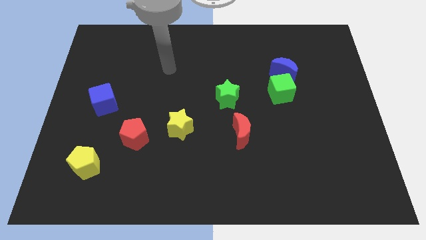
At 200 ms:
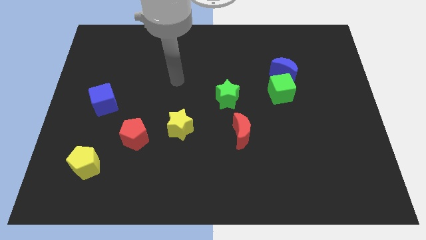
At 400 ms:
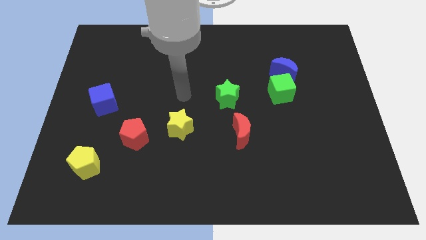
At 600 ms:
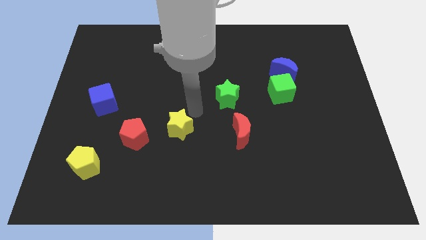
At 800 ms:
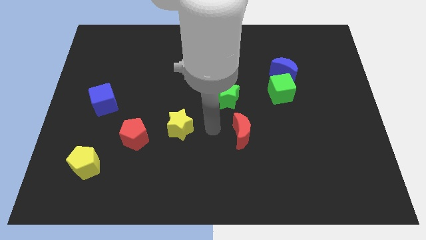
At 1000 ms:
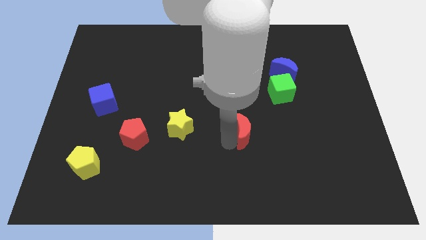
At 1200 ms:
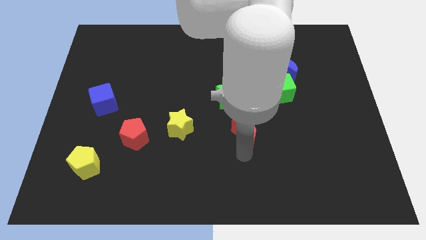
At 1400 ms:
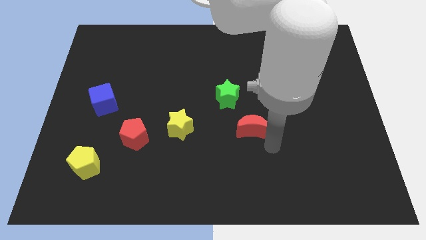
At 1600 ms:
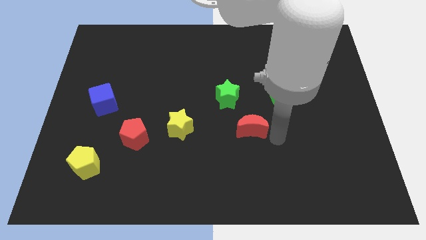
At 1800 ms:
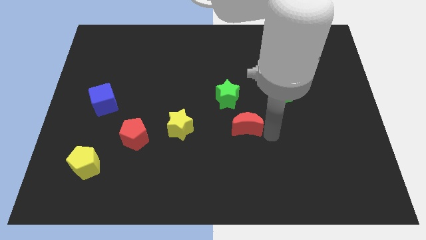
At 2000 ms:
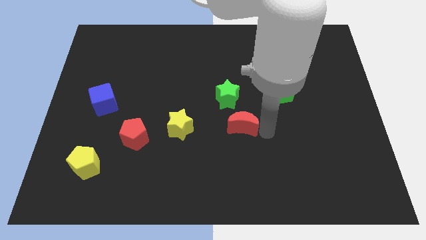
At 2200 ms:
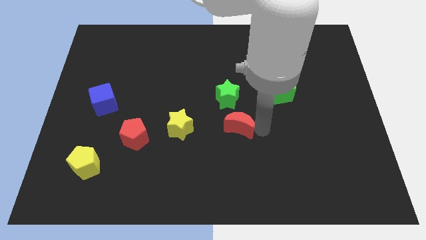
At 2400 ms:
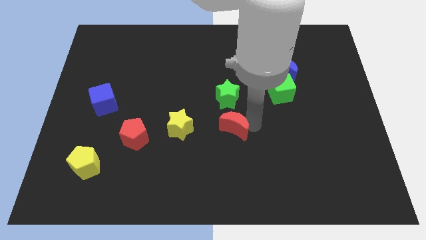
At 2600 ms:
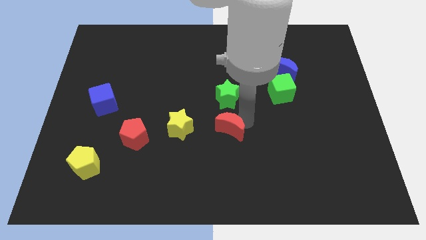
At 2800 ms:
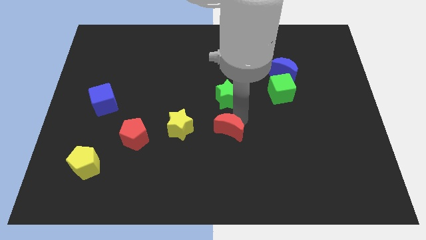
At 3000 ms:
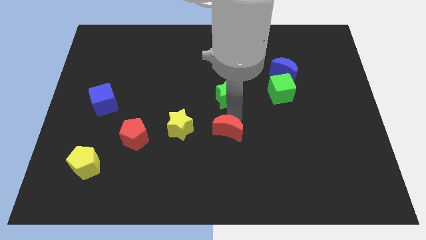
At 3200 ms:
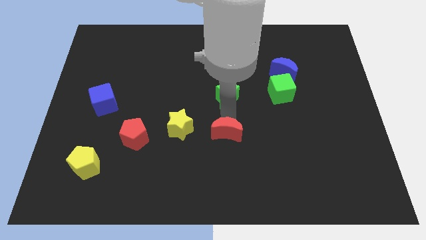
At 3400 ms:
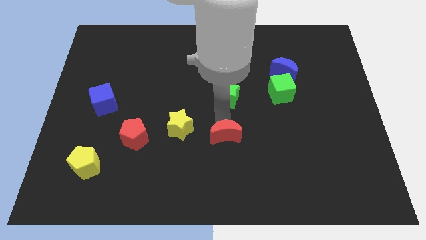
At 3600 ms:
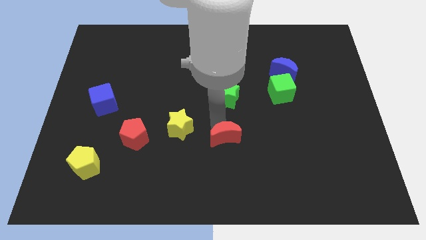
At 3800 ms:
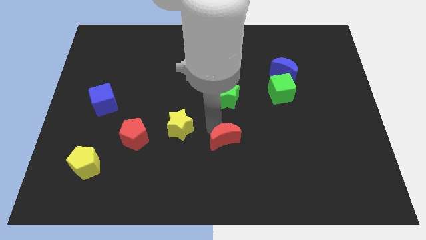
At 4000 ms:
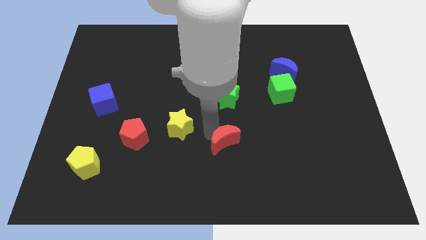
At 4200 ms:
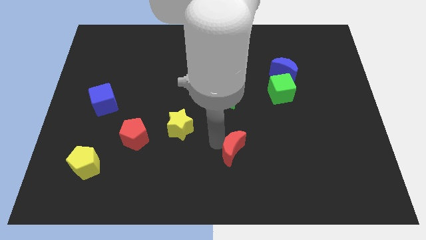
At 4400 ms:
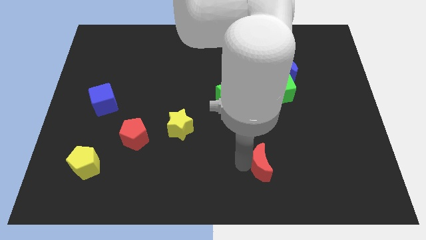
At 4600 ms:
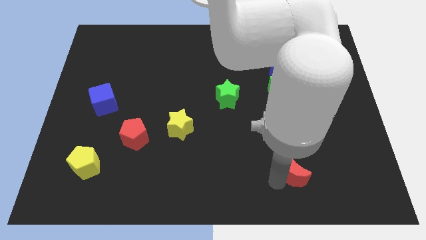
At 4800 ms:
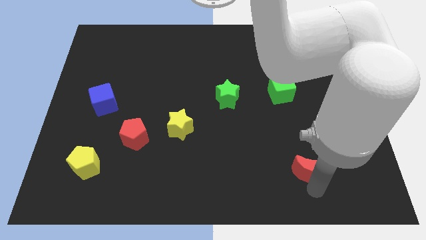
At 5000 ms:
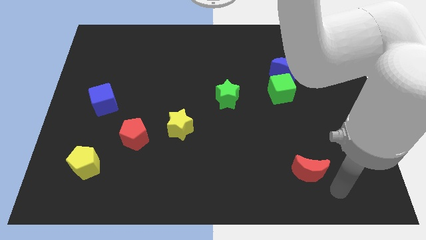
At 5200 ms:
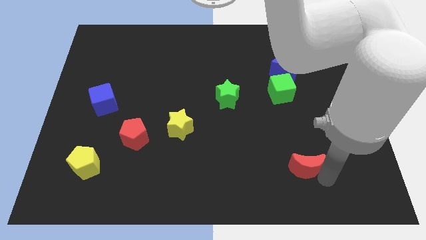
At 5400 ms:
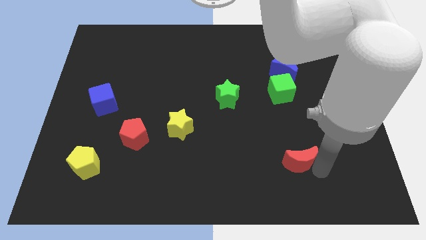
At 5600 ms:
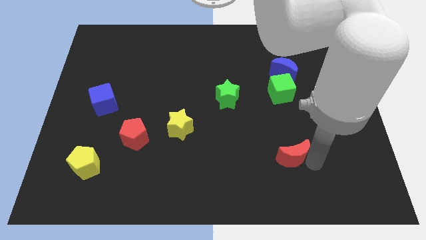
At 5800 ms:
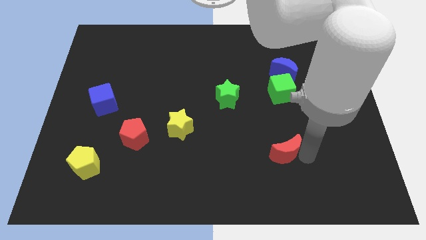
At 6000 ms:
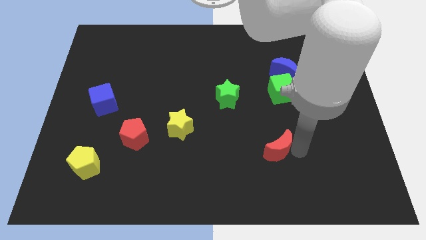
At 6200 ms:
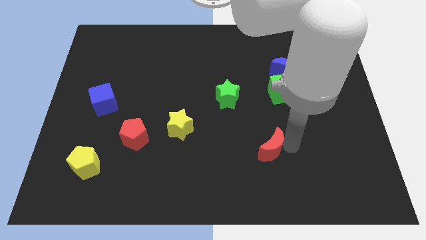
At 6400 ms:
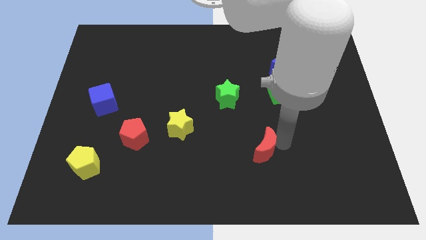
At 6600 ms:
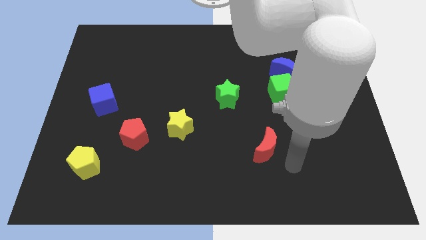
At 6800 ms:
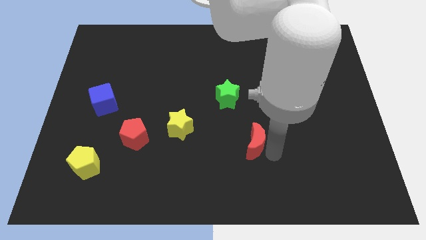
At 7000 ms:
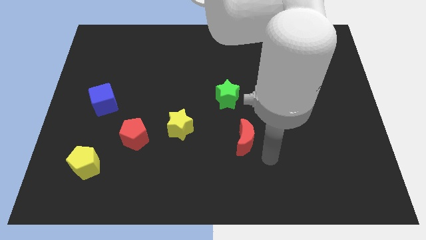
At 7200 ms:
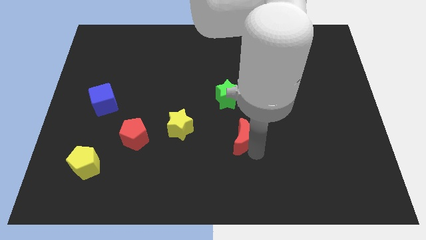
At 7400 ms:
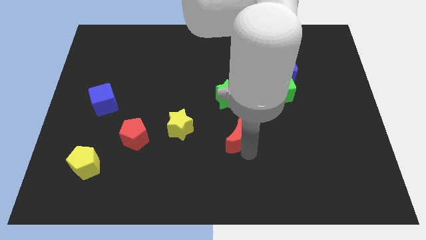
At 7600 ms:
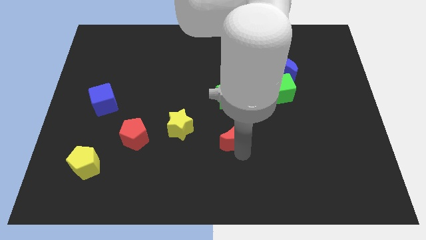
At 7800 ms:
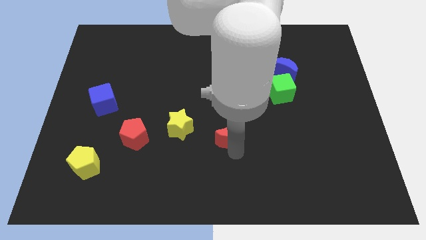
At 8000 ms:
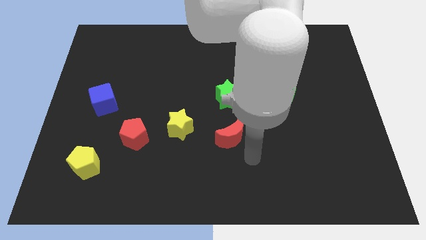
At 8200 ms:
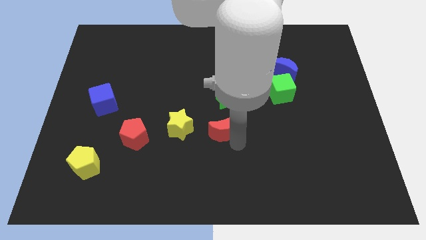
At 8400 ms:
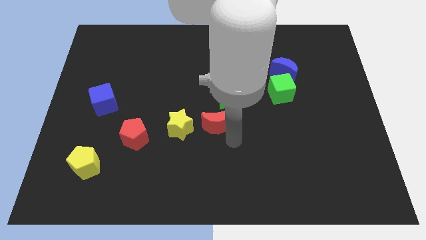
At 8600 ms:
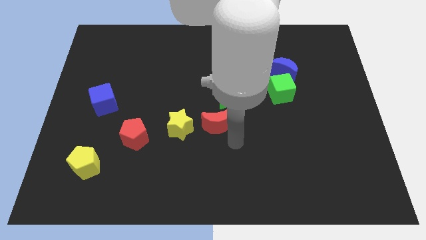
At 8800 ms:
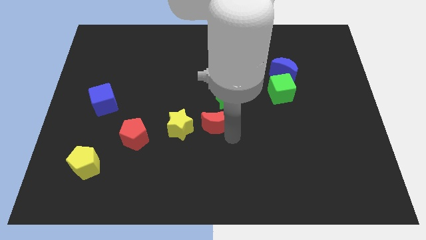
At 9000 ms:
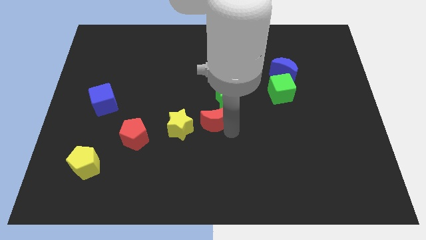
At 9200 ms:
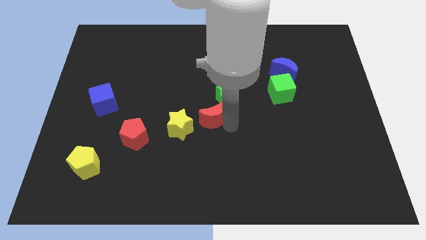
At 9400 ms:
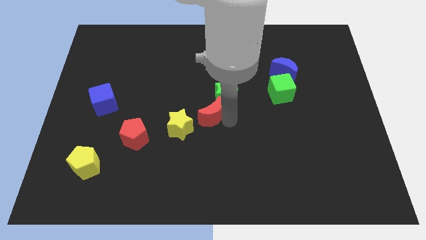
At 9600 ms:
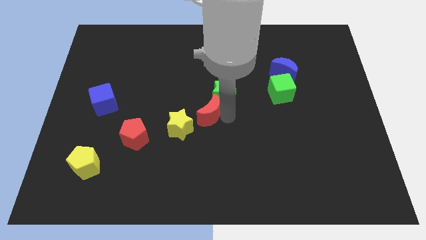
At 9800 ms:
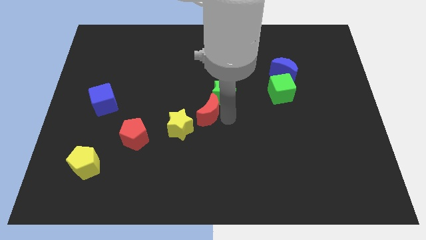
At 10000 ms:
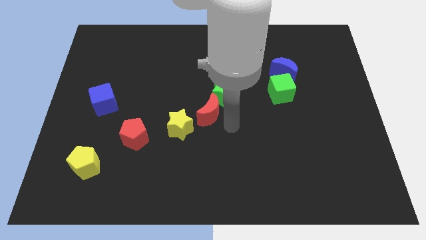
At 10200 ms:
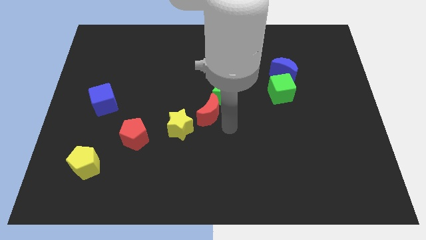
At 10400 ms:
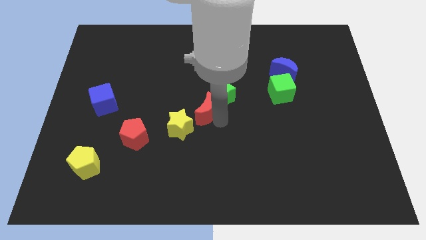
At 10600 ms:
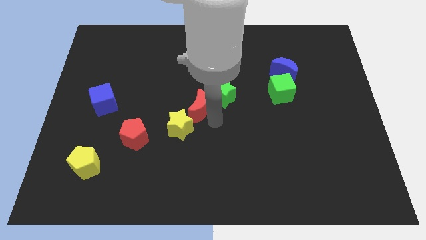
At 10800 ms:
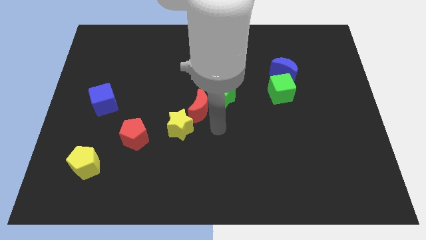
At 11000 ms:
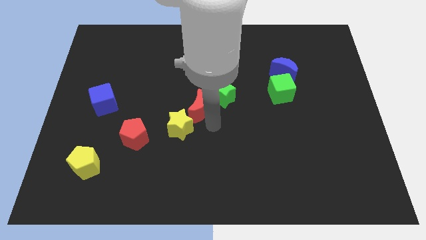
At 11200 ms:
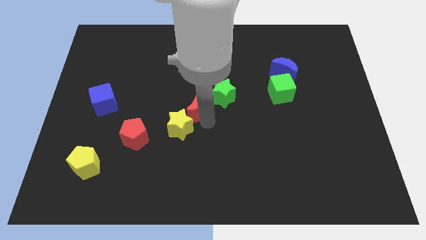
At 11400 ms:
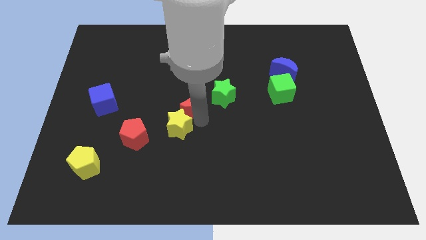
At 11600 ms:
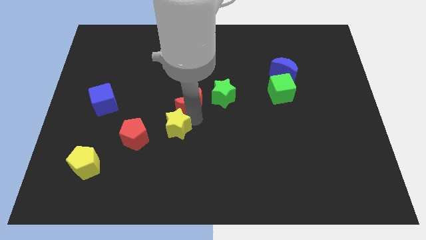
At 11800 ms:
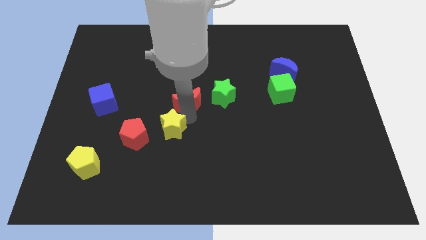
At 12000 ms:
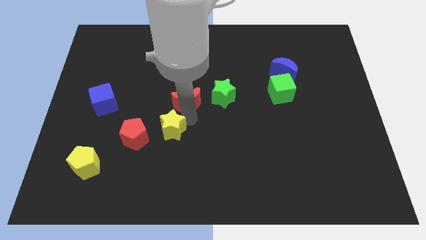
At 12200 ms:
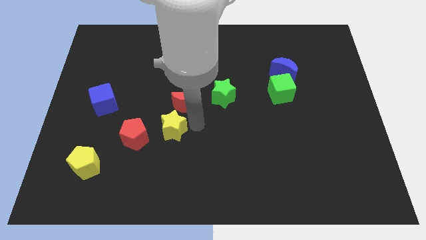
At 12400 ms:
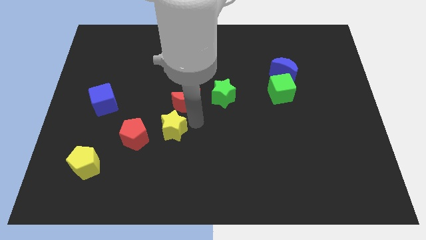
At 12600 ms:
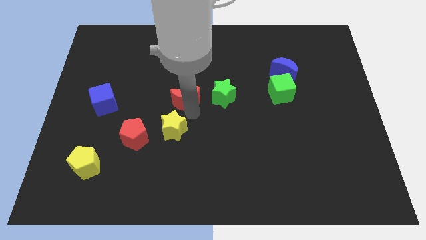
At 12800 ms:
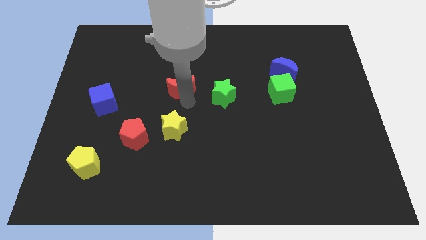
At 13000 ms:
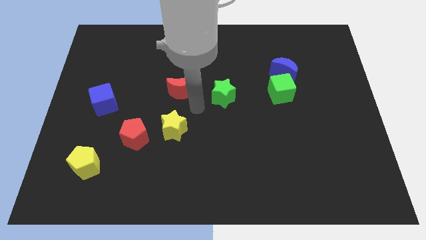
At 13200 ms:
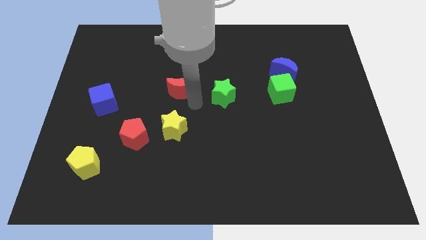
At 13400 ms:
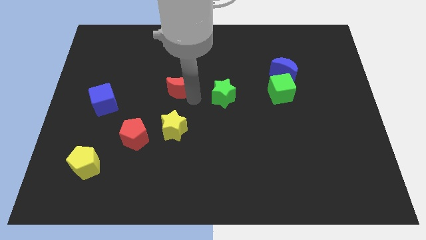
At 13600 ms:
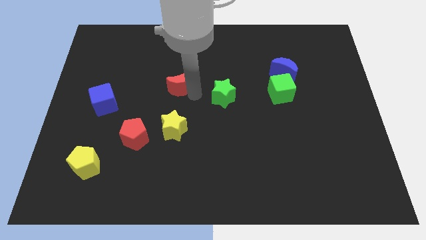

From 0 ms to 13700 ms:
slide the red moon upwards and then to the left

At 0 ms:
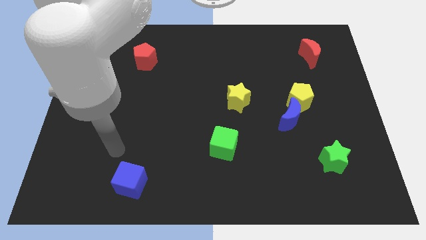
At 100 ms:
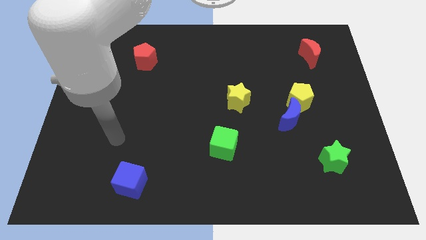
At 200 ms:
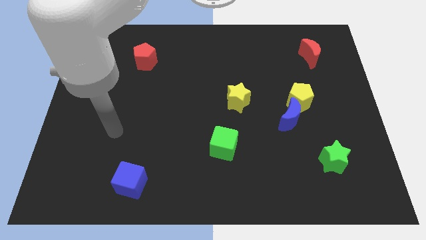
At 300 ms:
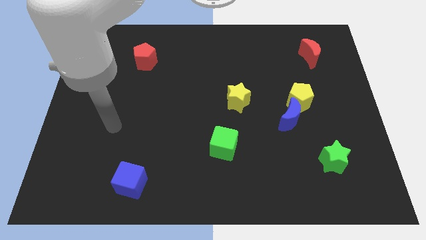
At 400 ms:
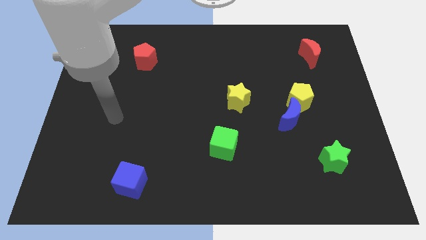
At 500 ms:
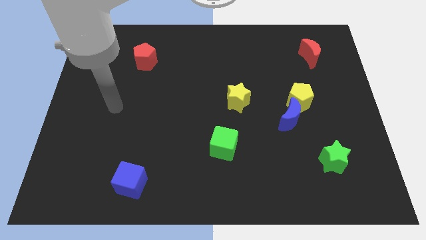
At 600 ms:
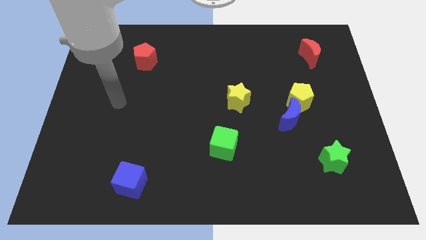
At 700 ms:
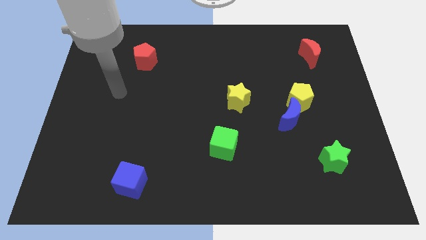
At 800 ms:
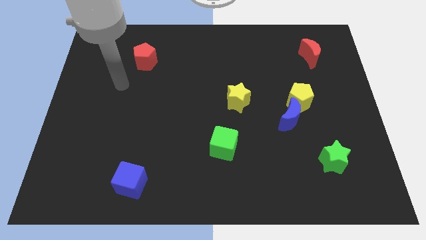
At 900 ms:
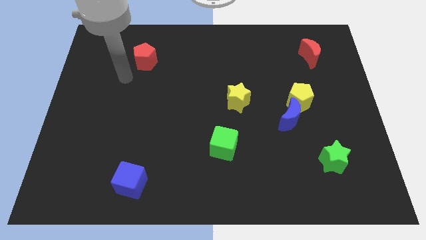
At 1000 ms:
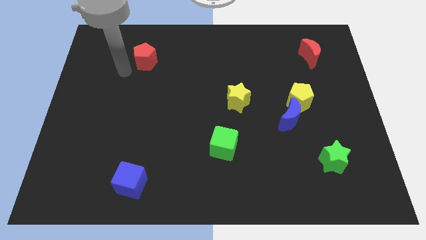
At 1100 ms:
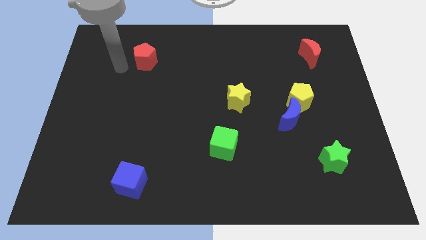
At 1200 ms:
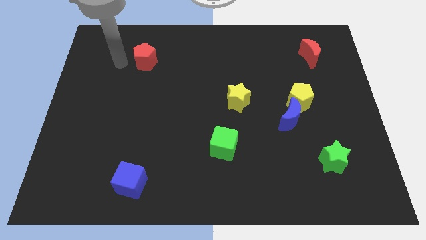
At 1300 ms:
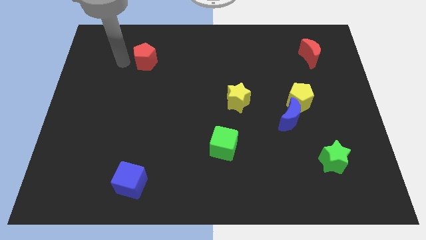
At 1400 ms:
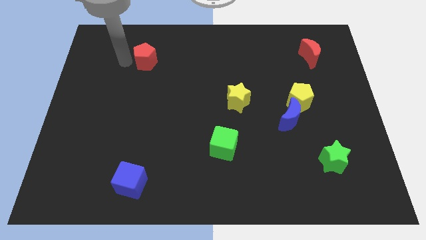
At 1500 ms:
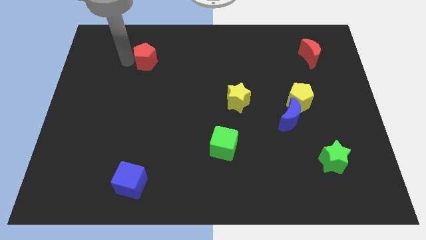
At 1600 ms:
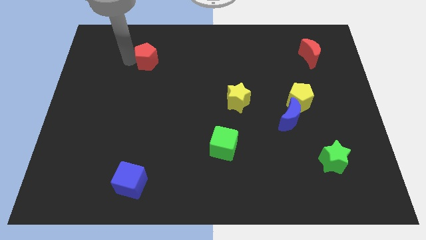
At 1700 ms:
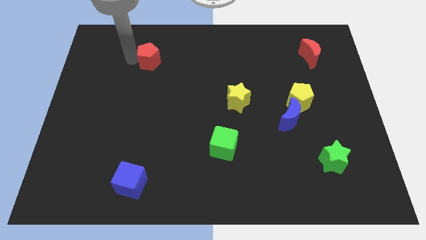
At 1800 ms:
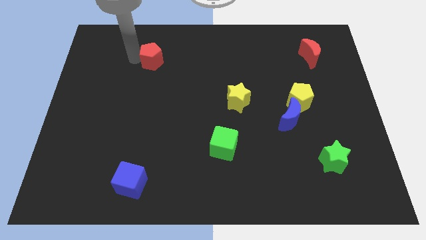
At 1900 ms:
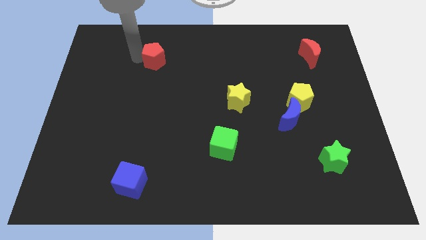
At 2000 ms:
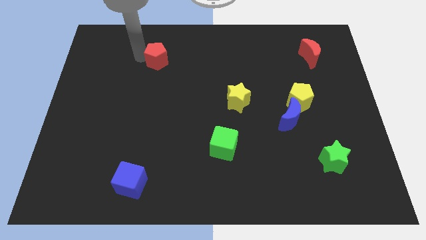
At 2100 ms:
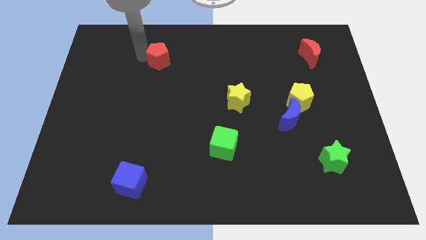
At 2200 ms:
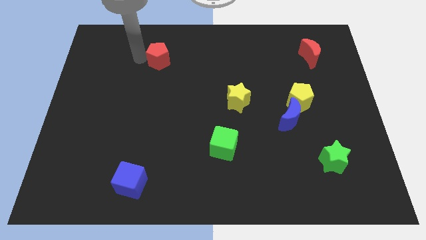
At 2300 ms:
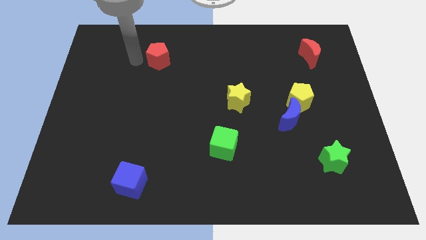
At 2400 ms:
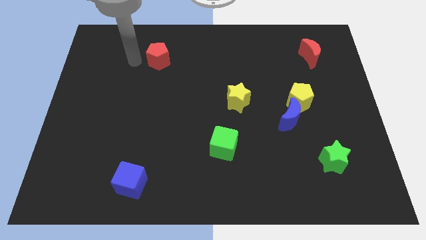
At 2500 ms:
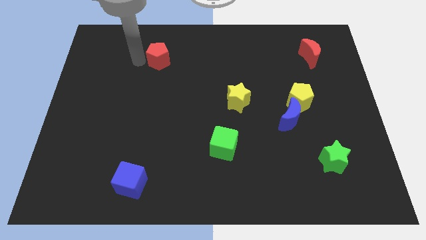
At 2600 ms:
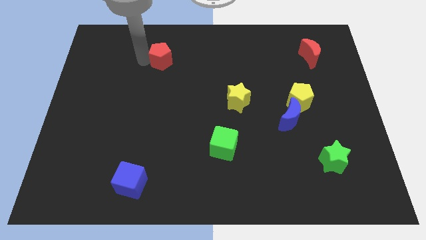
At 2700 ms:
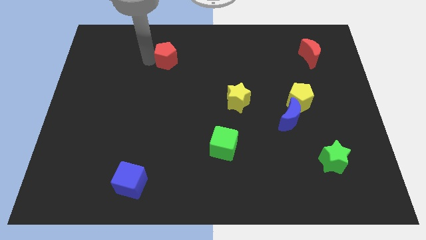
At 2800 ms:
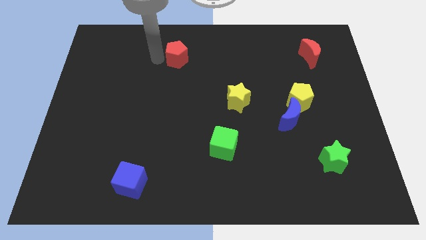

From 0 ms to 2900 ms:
slide the red pentagon right a little
